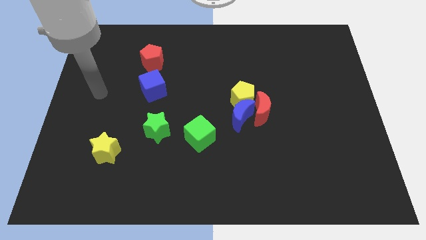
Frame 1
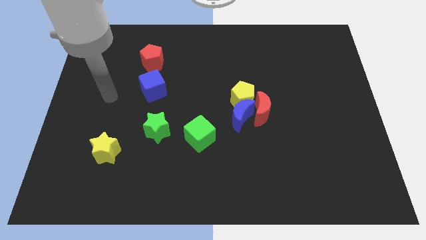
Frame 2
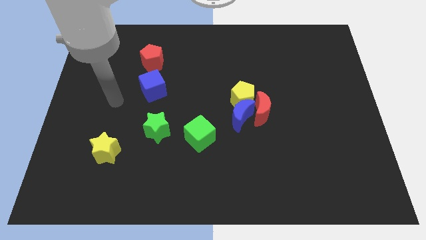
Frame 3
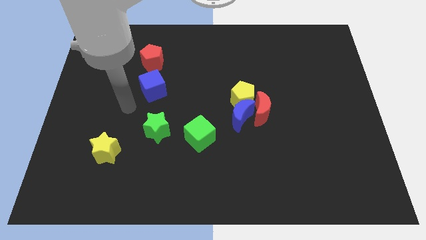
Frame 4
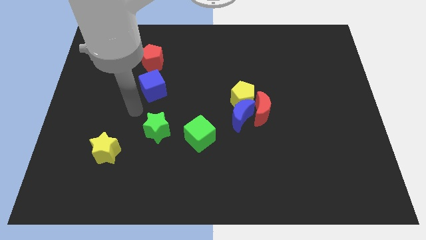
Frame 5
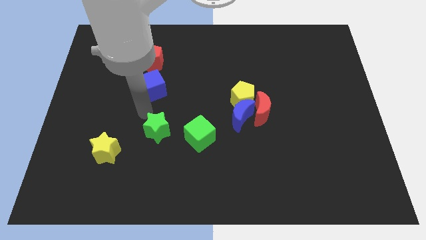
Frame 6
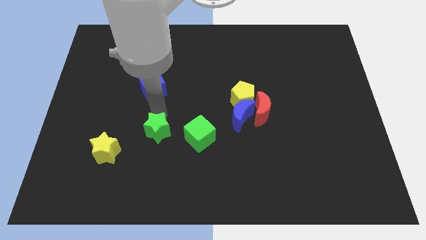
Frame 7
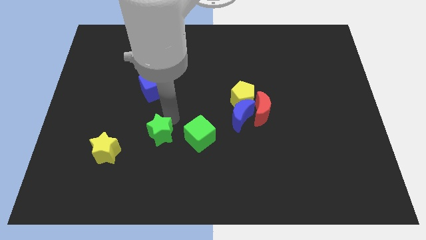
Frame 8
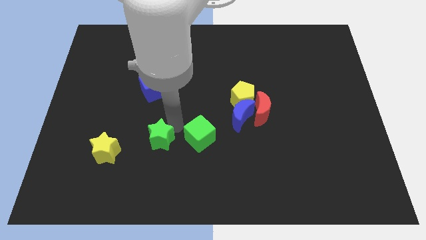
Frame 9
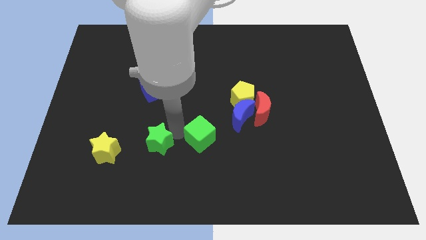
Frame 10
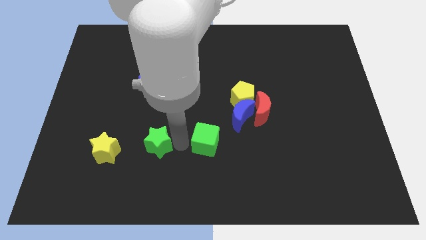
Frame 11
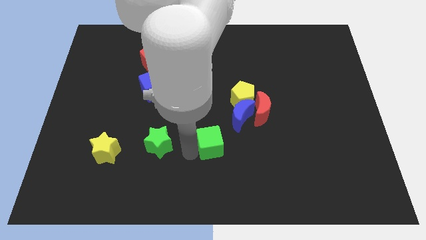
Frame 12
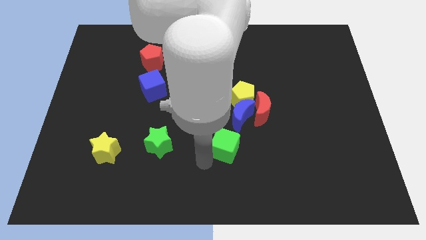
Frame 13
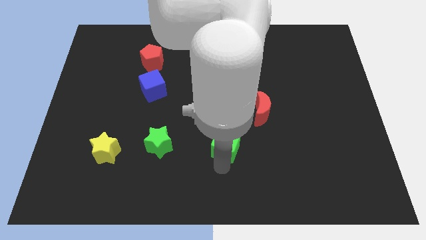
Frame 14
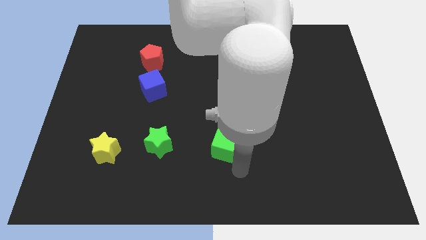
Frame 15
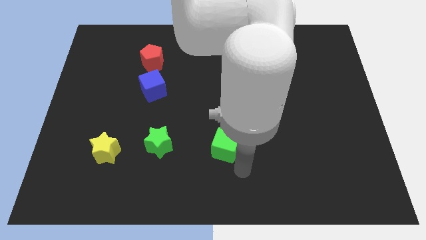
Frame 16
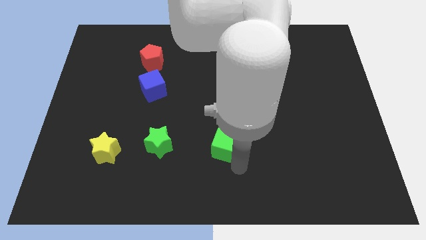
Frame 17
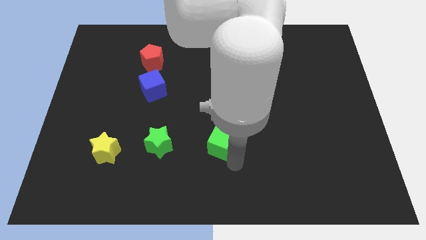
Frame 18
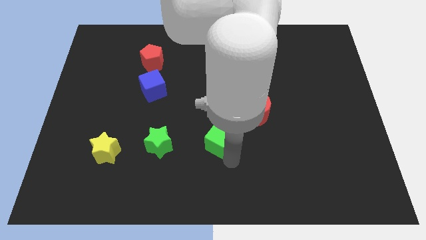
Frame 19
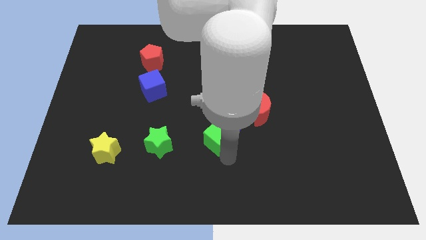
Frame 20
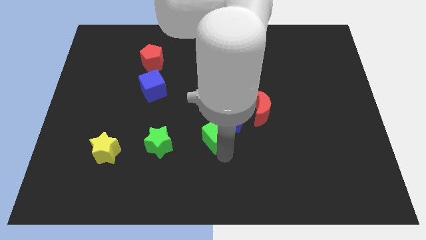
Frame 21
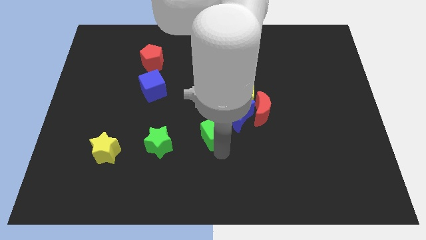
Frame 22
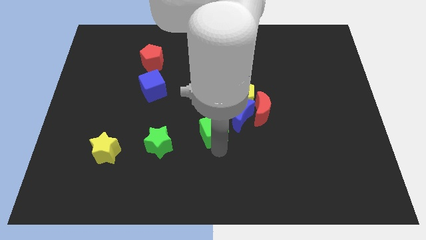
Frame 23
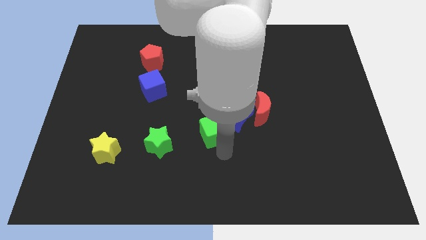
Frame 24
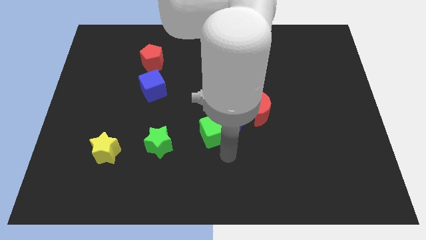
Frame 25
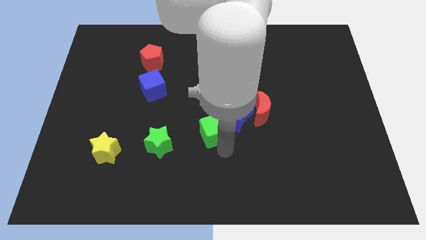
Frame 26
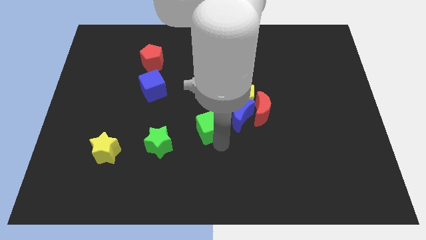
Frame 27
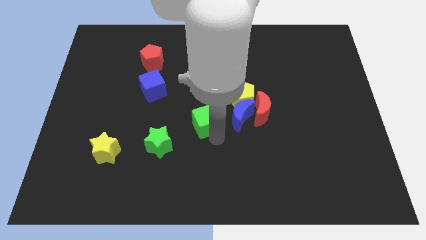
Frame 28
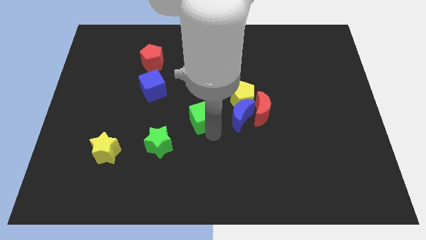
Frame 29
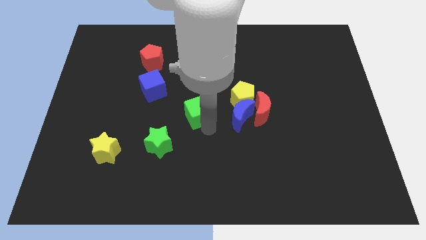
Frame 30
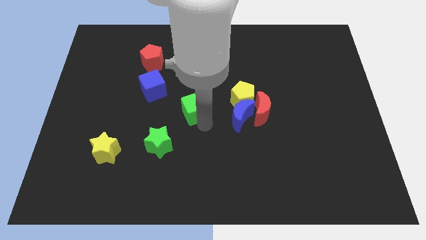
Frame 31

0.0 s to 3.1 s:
slide the green cube up a bit

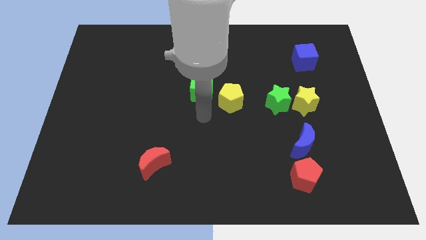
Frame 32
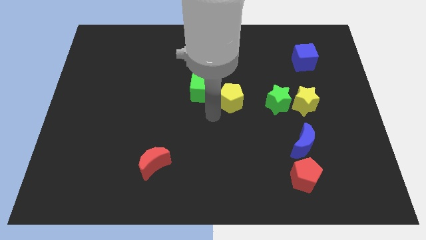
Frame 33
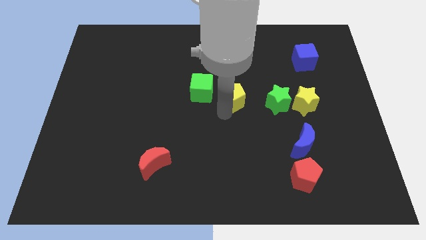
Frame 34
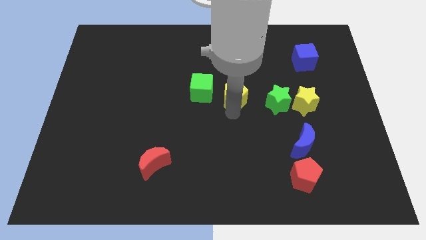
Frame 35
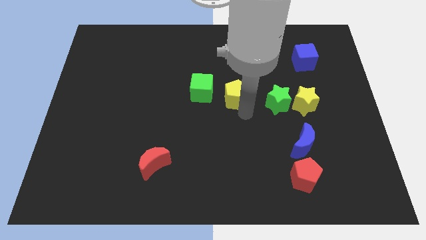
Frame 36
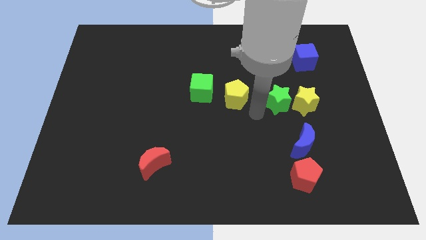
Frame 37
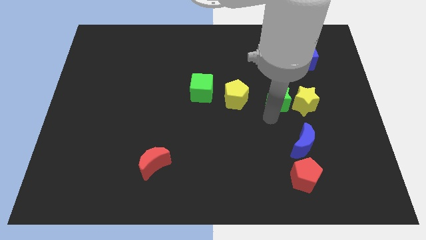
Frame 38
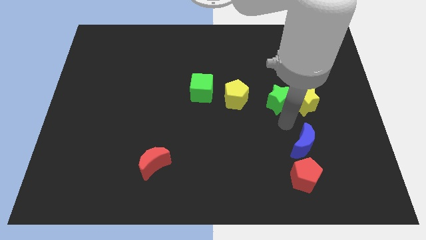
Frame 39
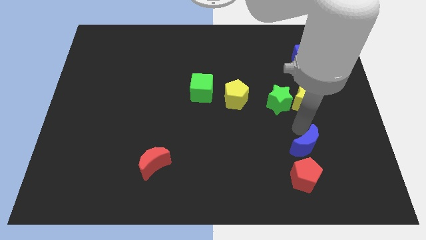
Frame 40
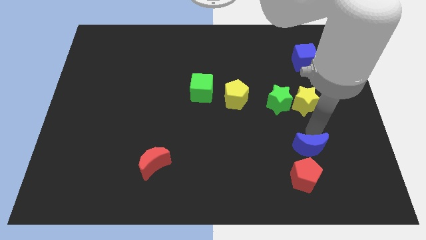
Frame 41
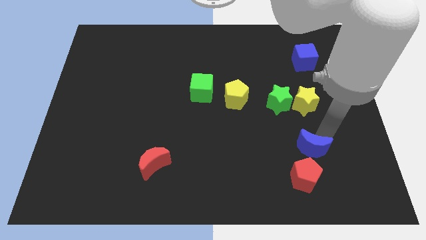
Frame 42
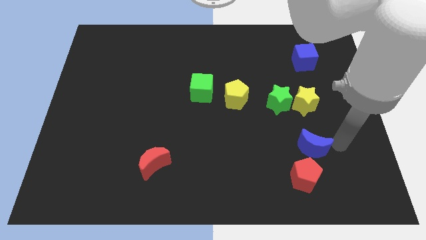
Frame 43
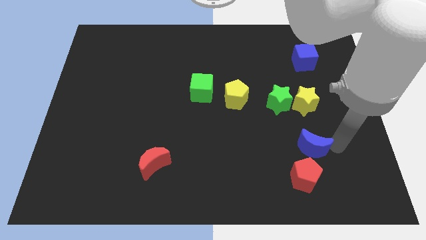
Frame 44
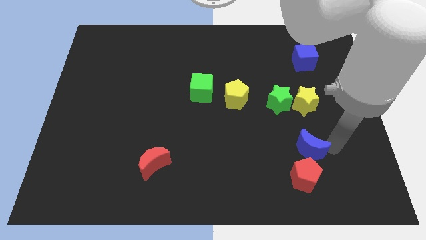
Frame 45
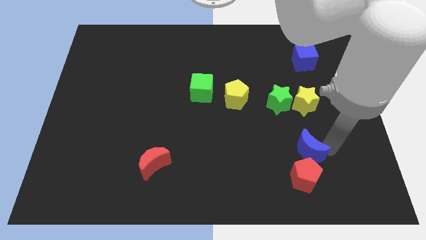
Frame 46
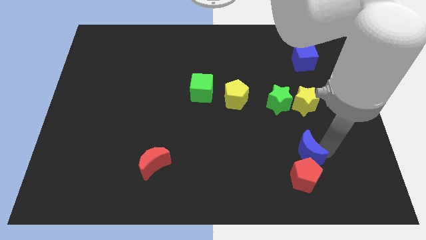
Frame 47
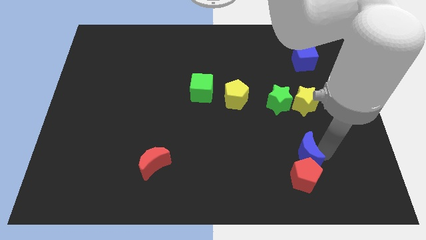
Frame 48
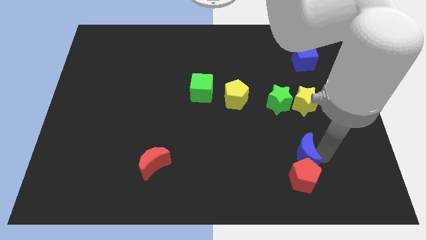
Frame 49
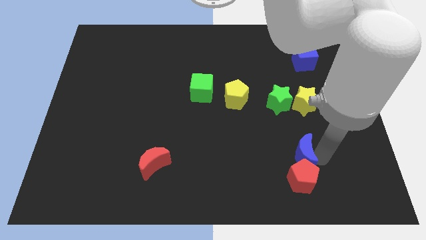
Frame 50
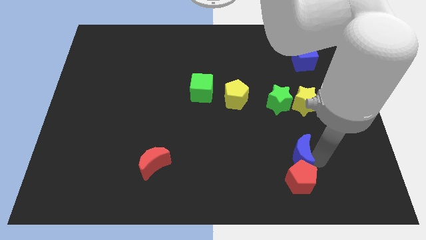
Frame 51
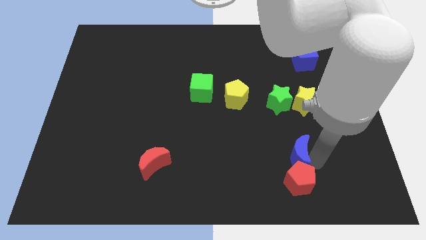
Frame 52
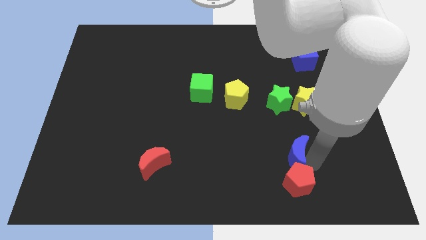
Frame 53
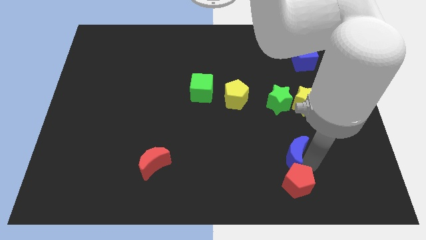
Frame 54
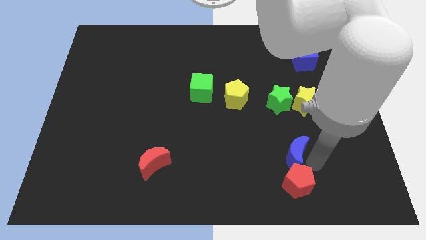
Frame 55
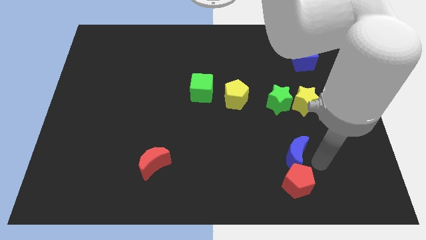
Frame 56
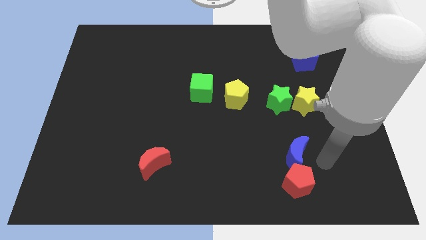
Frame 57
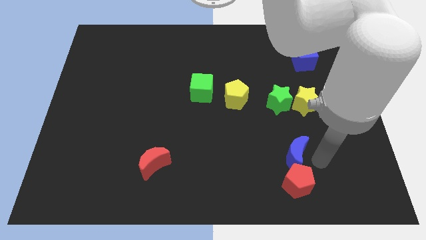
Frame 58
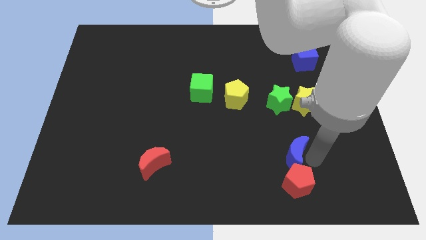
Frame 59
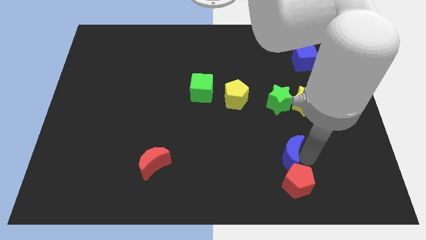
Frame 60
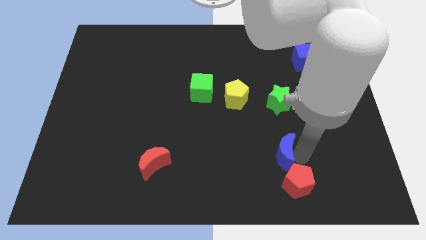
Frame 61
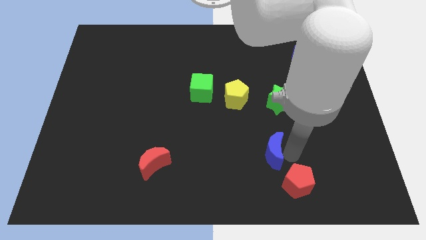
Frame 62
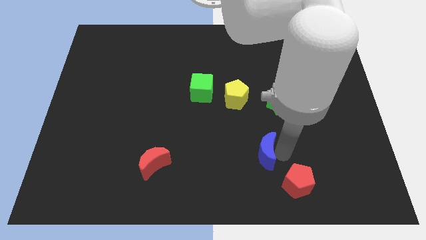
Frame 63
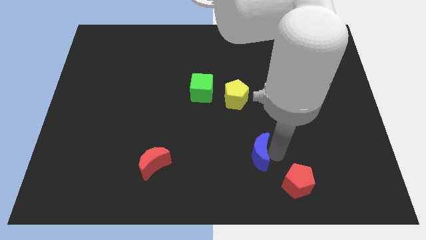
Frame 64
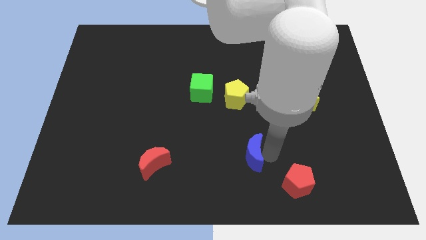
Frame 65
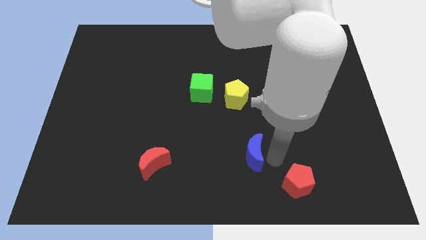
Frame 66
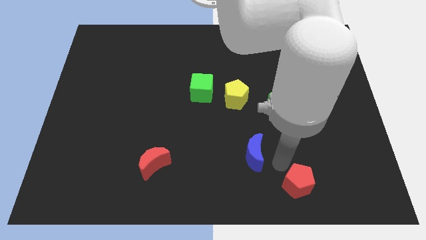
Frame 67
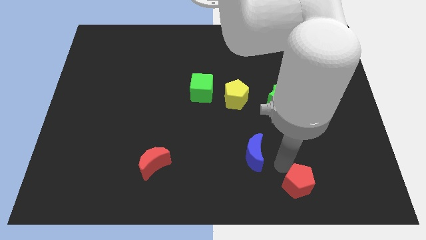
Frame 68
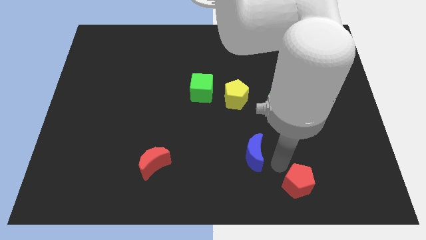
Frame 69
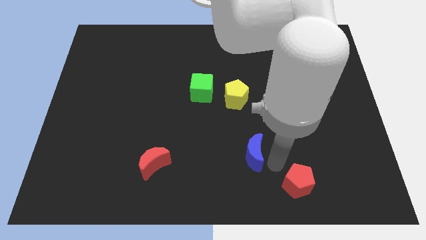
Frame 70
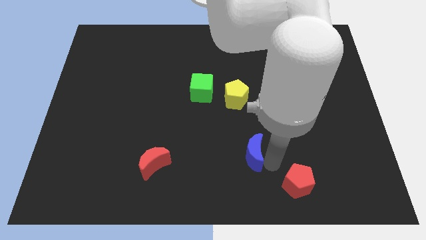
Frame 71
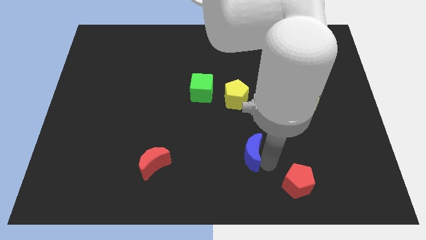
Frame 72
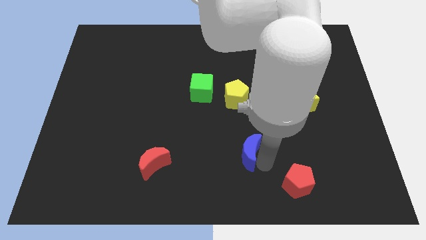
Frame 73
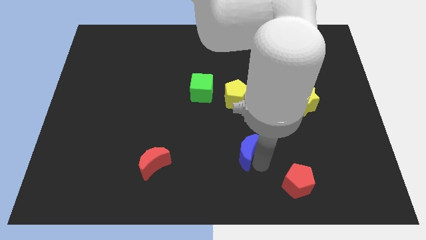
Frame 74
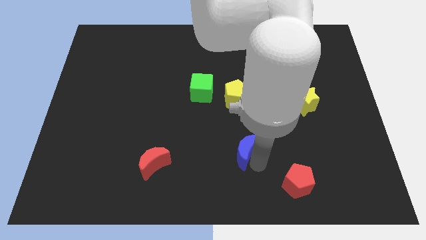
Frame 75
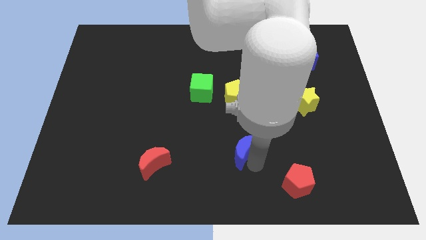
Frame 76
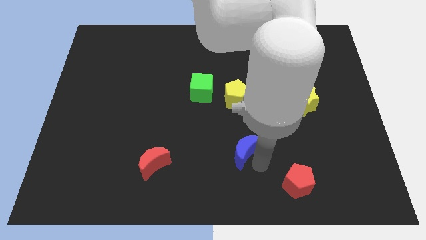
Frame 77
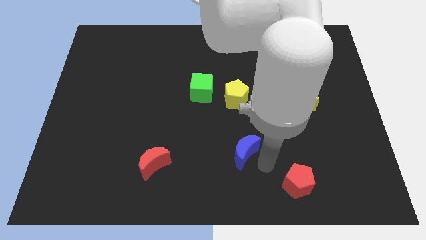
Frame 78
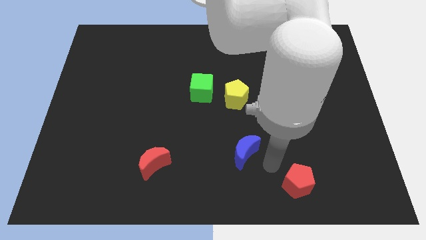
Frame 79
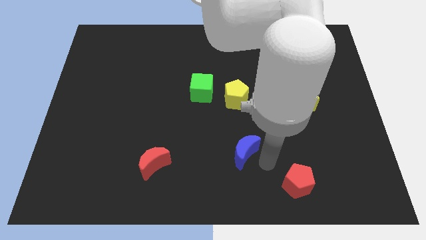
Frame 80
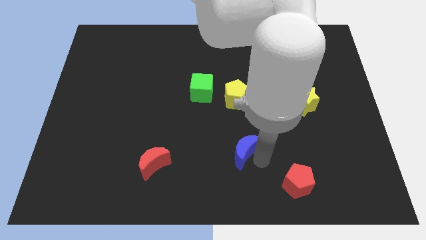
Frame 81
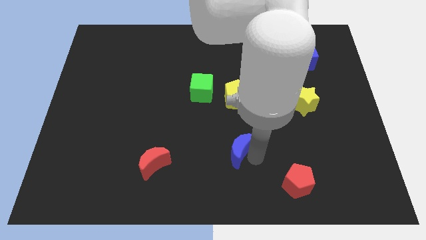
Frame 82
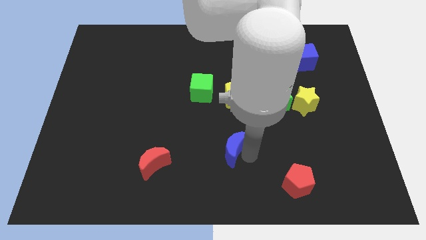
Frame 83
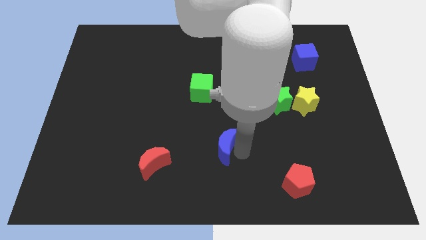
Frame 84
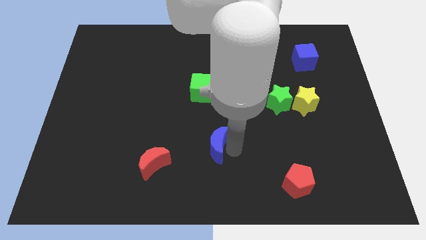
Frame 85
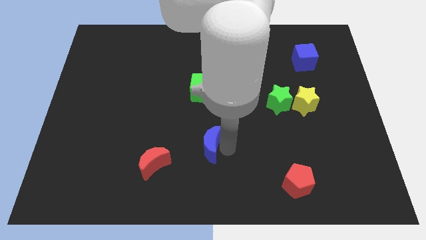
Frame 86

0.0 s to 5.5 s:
slide the blue moon to the left
